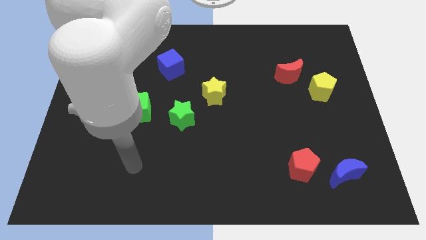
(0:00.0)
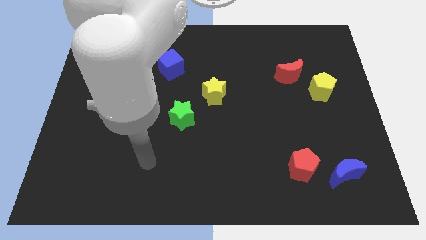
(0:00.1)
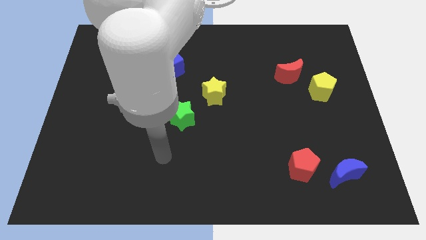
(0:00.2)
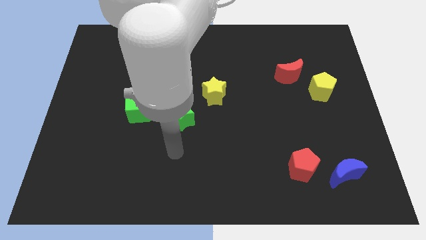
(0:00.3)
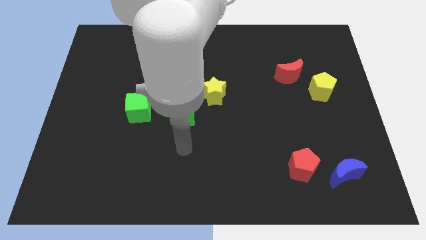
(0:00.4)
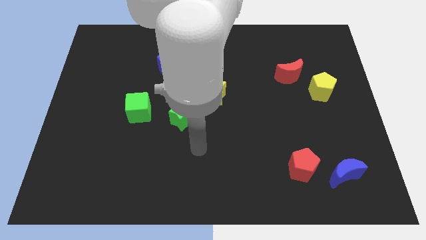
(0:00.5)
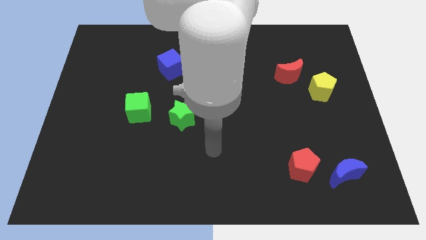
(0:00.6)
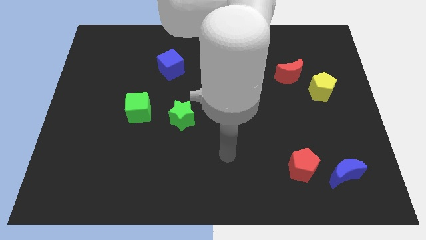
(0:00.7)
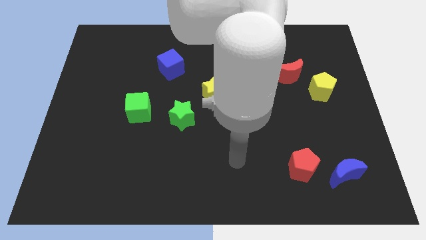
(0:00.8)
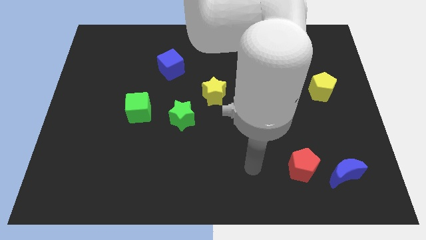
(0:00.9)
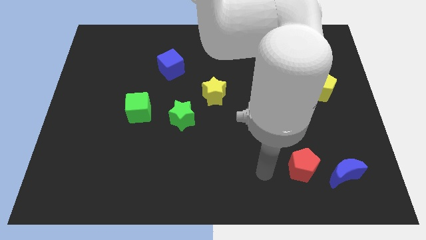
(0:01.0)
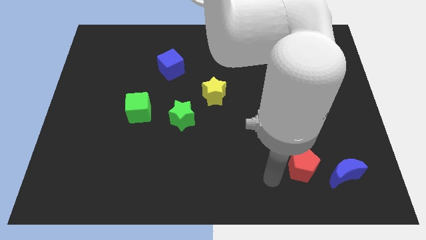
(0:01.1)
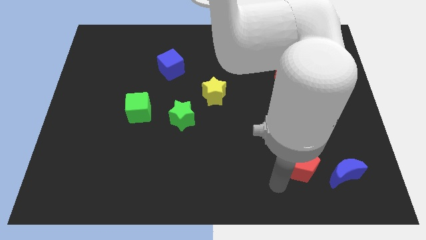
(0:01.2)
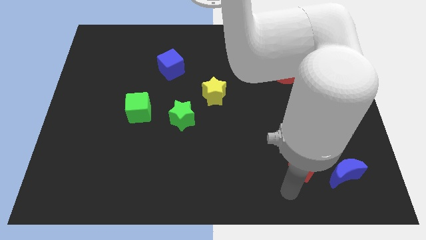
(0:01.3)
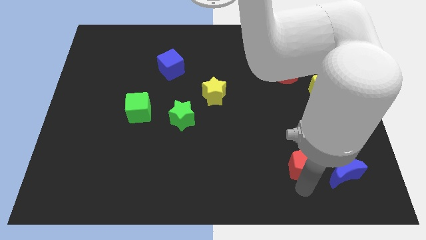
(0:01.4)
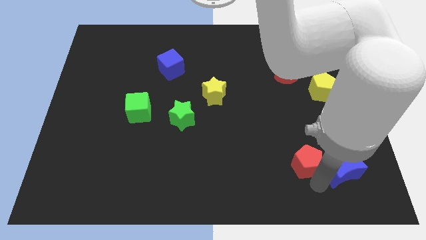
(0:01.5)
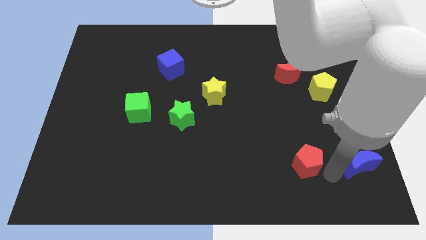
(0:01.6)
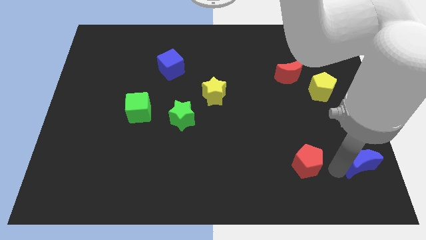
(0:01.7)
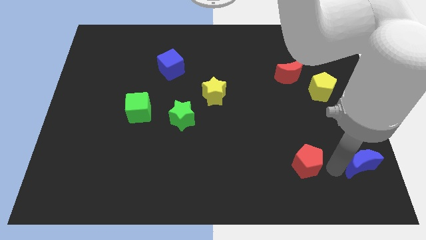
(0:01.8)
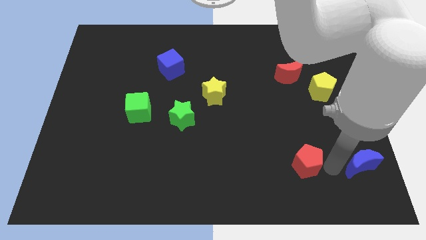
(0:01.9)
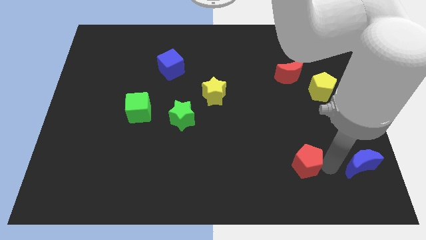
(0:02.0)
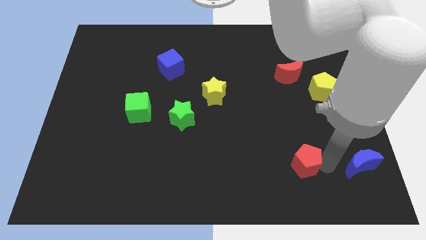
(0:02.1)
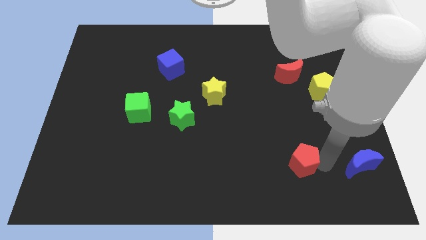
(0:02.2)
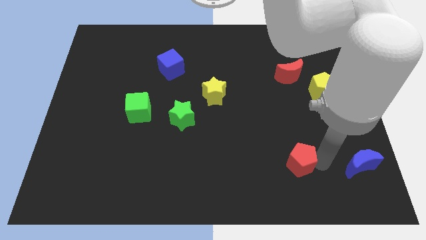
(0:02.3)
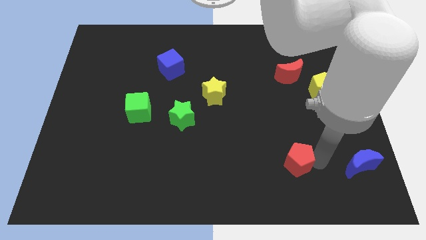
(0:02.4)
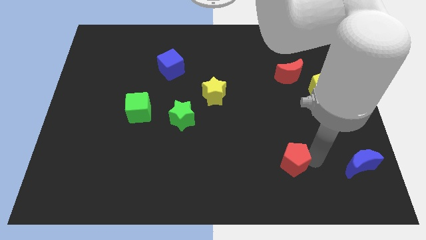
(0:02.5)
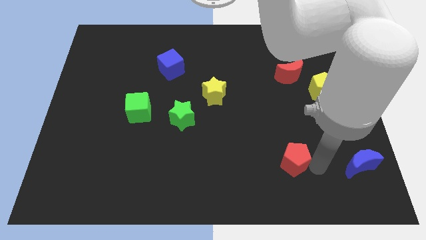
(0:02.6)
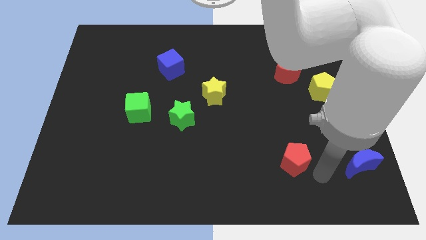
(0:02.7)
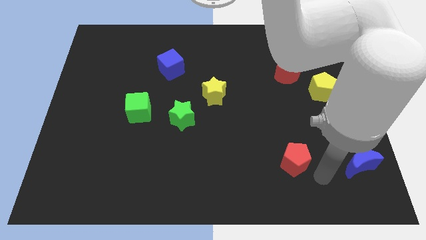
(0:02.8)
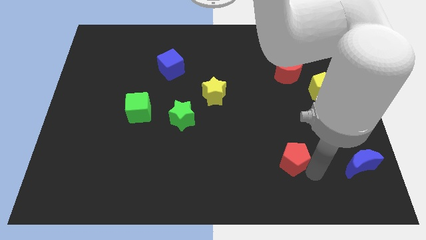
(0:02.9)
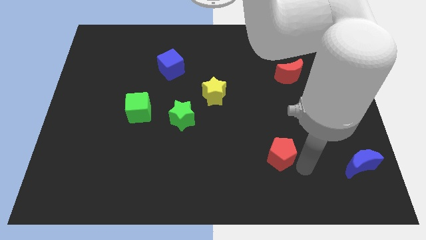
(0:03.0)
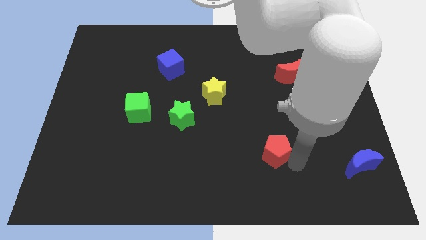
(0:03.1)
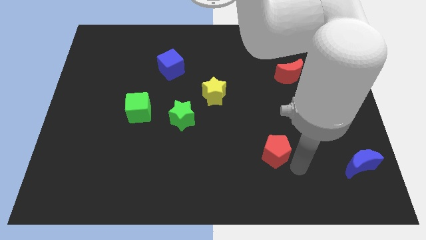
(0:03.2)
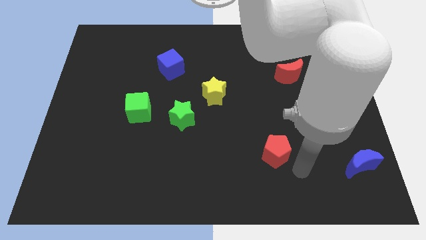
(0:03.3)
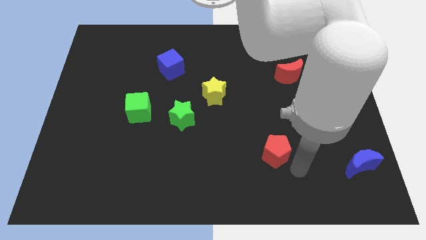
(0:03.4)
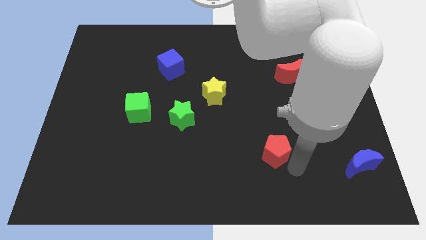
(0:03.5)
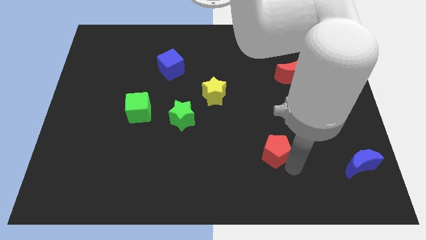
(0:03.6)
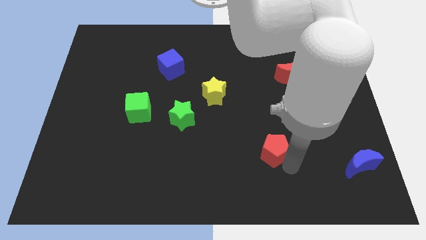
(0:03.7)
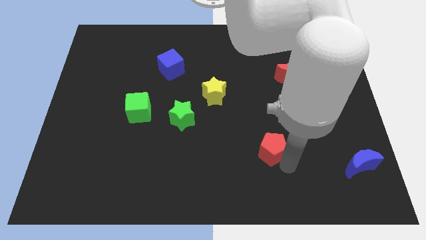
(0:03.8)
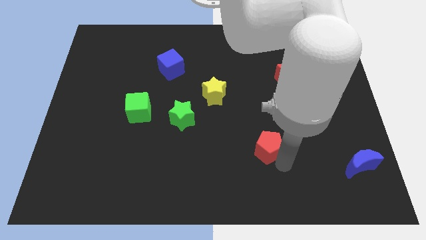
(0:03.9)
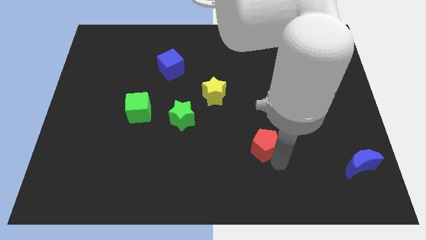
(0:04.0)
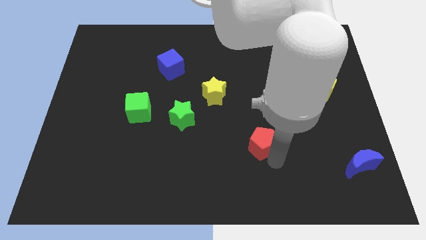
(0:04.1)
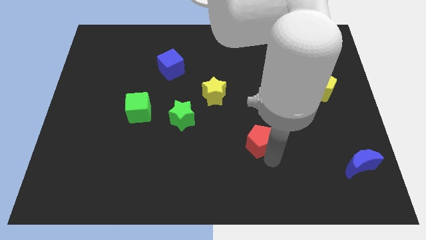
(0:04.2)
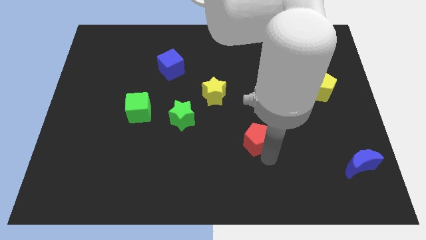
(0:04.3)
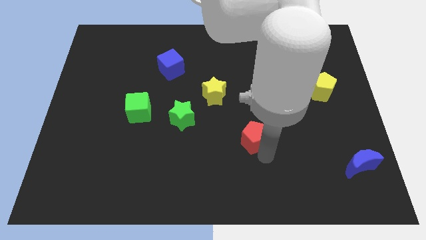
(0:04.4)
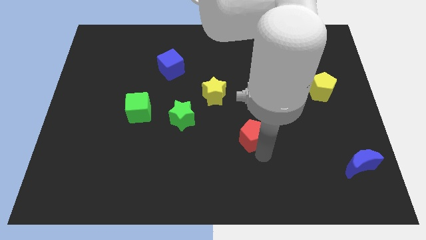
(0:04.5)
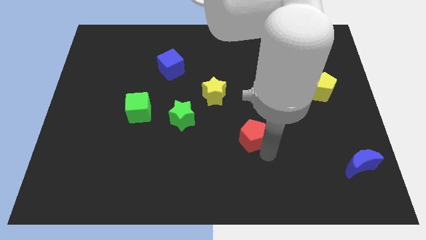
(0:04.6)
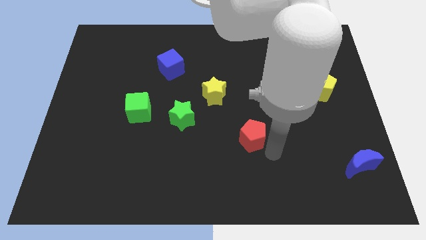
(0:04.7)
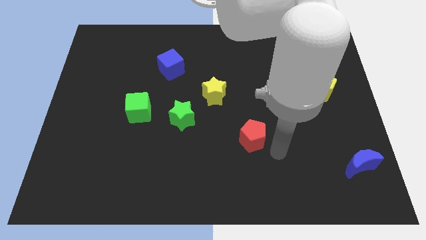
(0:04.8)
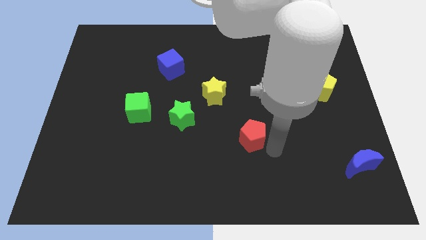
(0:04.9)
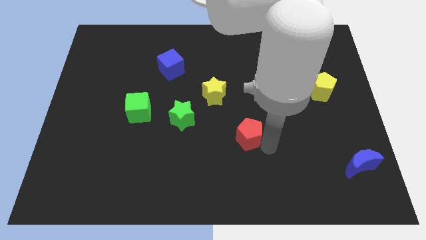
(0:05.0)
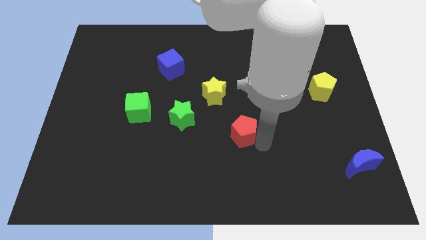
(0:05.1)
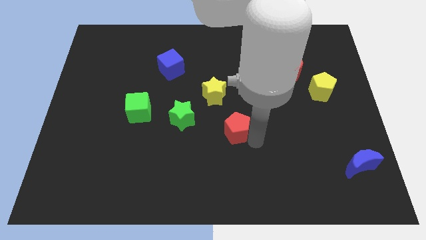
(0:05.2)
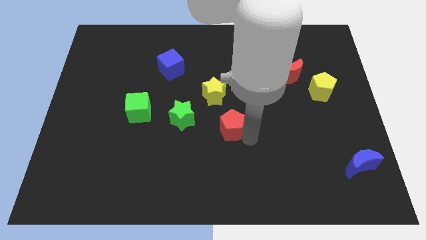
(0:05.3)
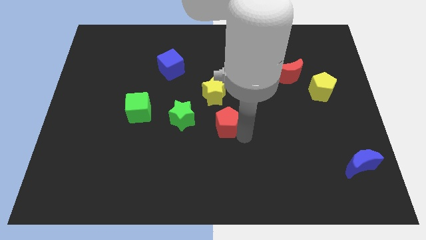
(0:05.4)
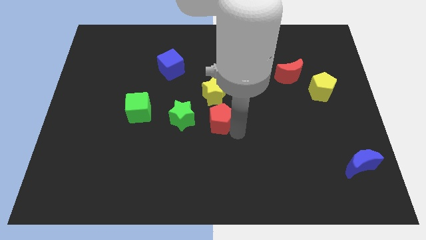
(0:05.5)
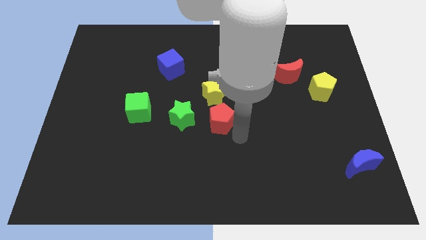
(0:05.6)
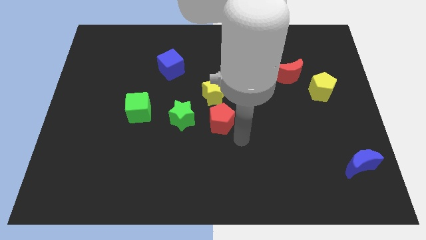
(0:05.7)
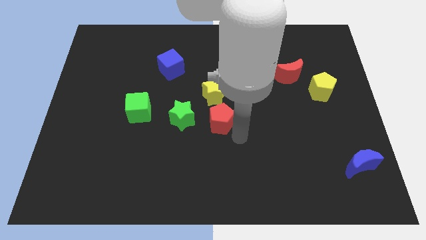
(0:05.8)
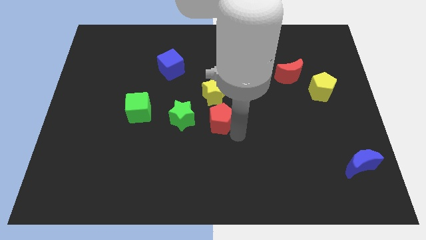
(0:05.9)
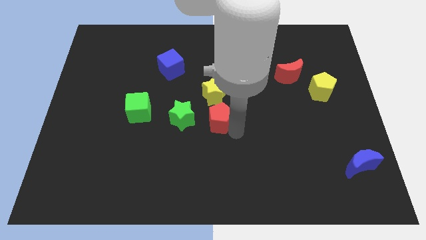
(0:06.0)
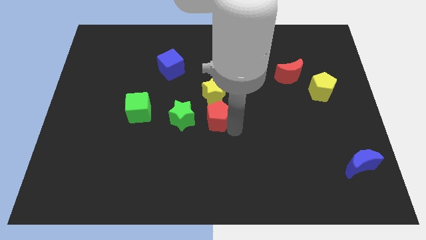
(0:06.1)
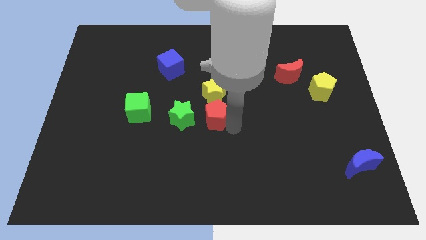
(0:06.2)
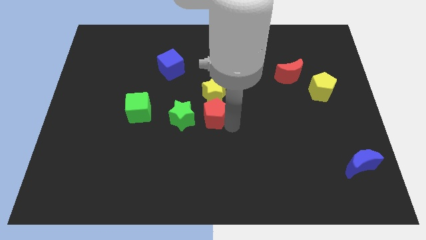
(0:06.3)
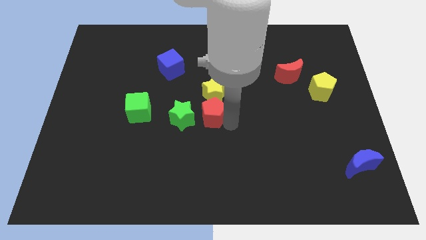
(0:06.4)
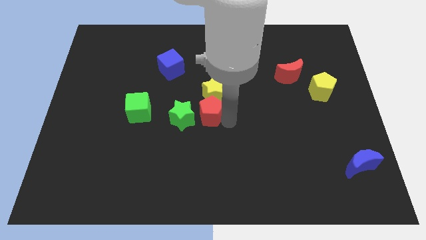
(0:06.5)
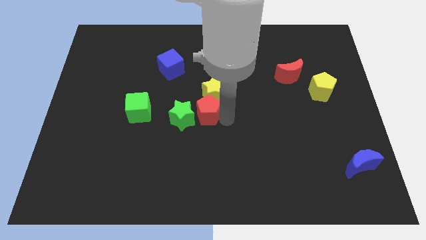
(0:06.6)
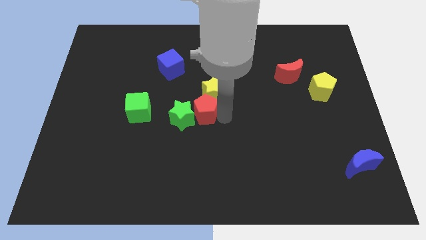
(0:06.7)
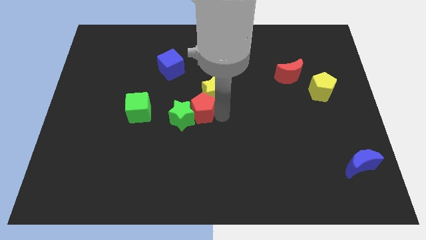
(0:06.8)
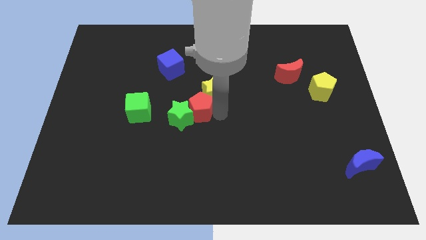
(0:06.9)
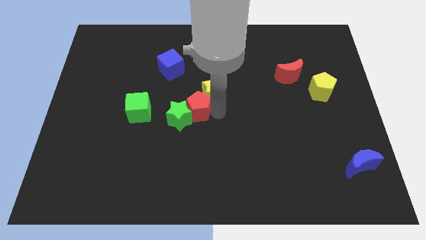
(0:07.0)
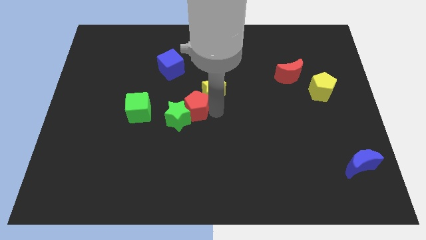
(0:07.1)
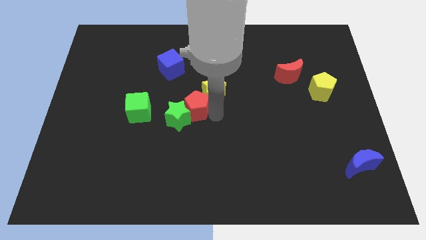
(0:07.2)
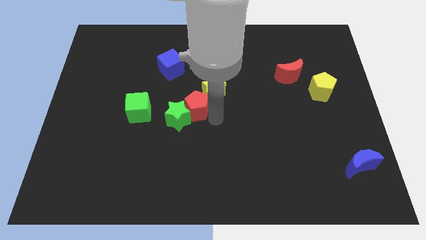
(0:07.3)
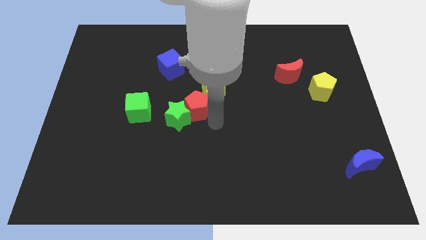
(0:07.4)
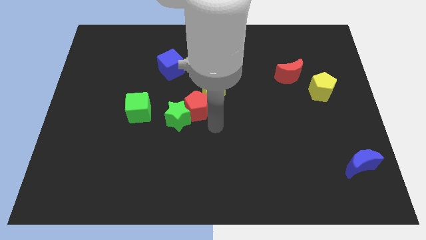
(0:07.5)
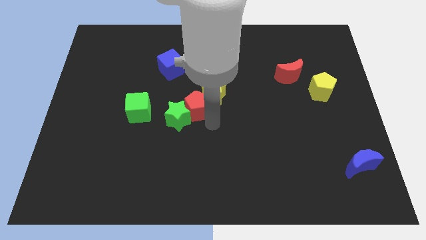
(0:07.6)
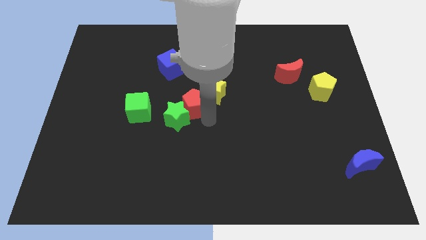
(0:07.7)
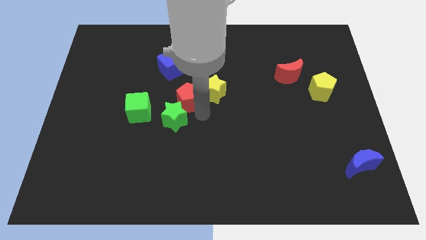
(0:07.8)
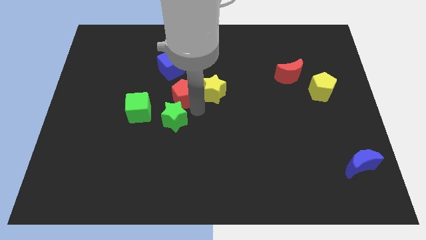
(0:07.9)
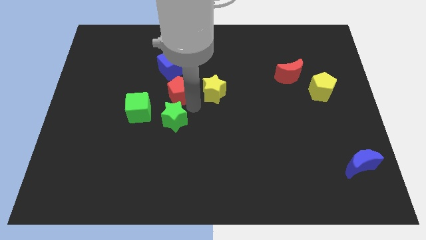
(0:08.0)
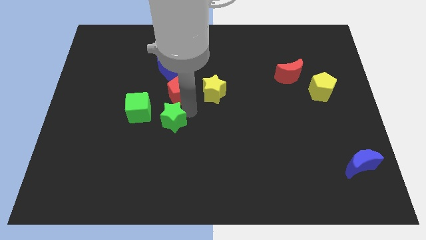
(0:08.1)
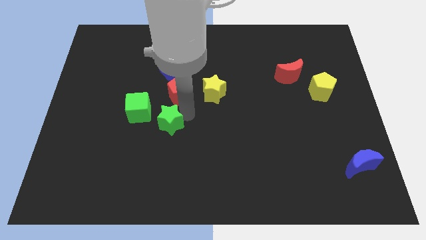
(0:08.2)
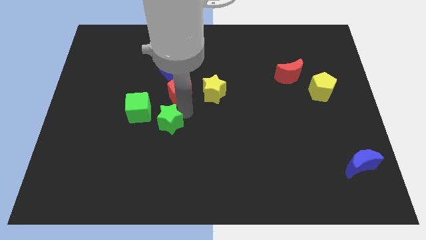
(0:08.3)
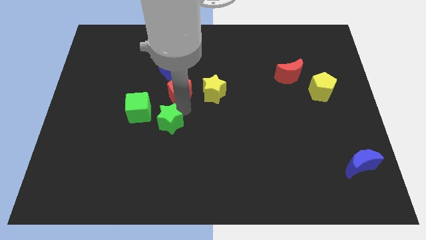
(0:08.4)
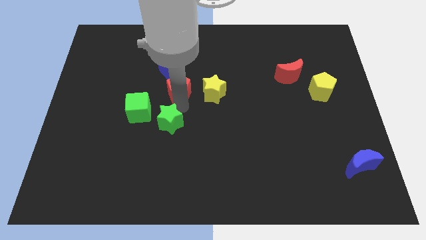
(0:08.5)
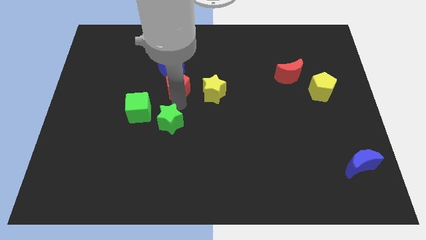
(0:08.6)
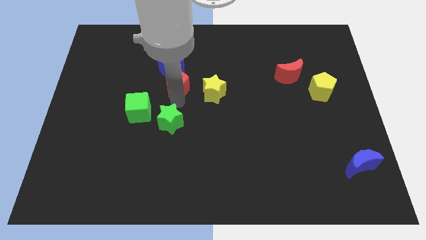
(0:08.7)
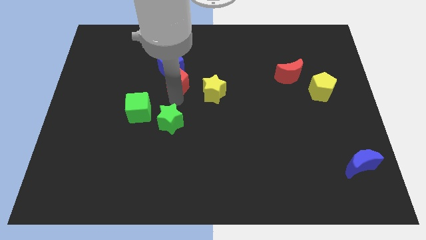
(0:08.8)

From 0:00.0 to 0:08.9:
slide the red pentagon towards the blue cube
